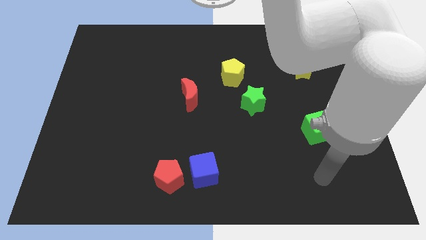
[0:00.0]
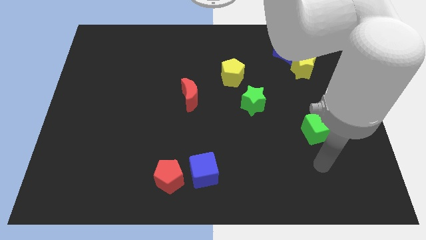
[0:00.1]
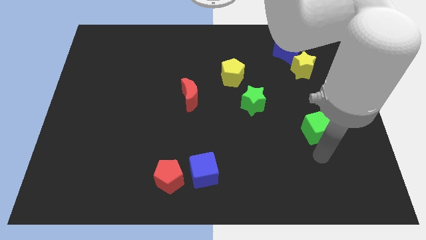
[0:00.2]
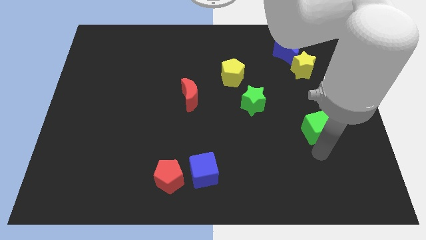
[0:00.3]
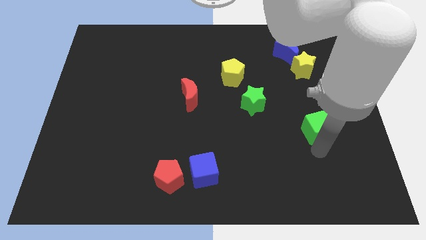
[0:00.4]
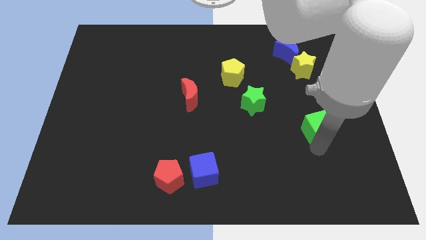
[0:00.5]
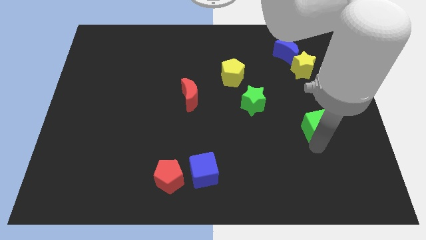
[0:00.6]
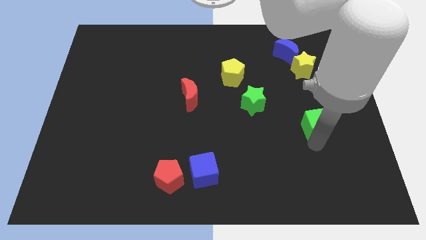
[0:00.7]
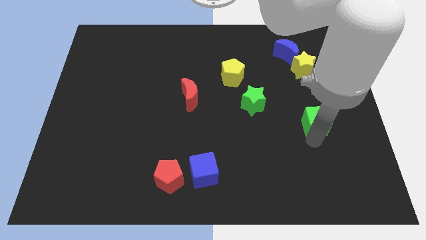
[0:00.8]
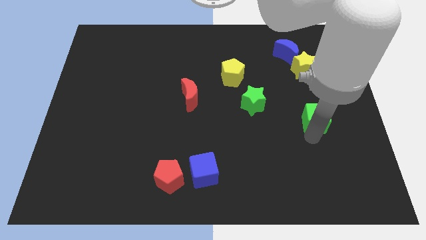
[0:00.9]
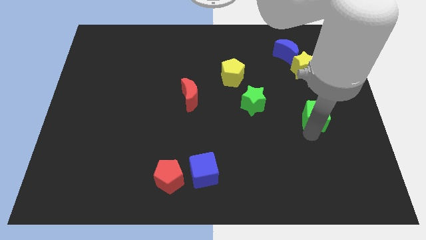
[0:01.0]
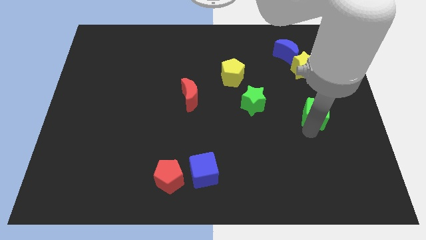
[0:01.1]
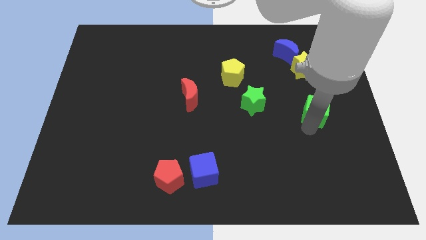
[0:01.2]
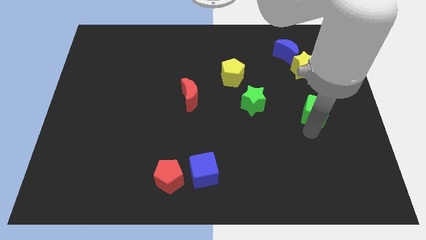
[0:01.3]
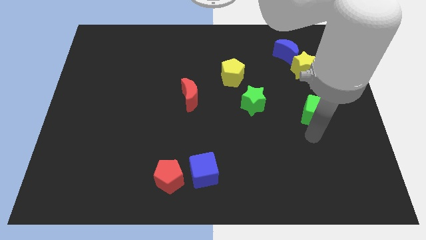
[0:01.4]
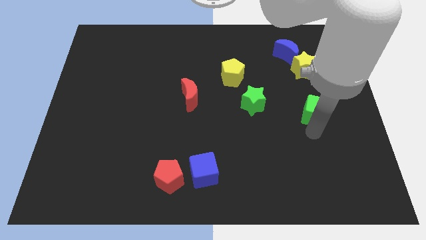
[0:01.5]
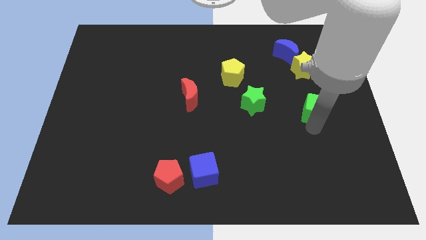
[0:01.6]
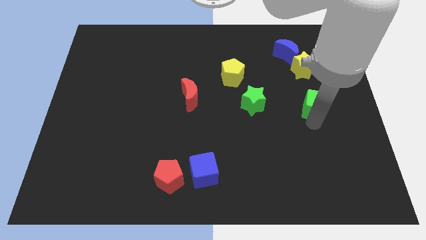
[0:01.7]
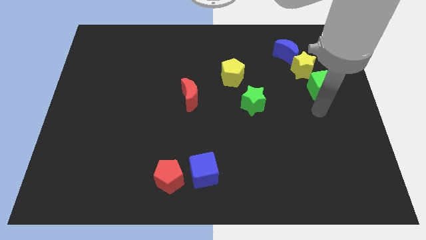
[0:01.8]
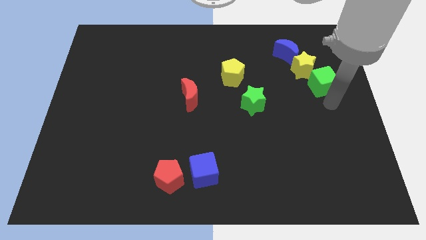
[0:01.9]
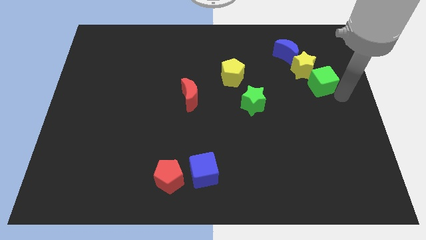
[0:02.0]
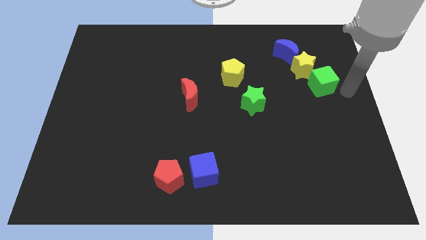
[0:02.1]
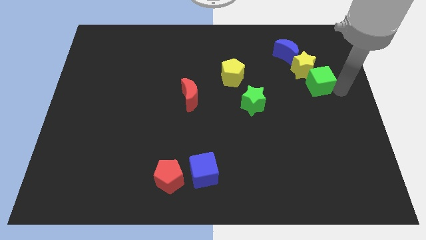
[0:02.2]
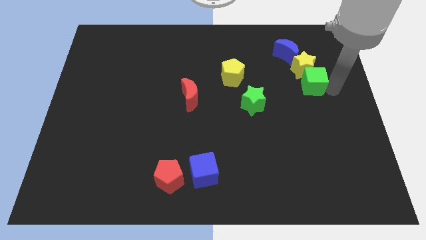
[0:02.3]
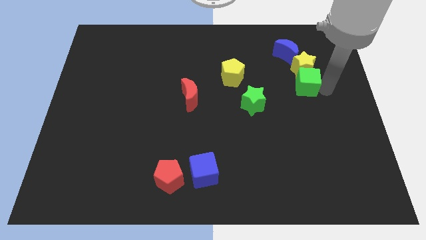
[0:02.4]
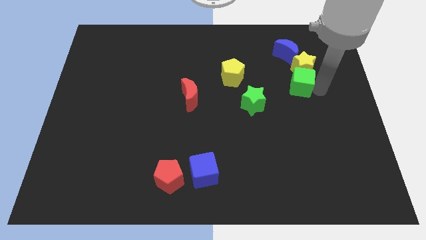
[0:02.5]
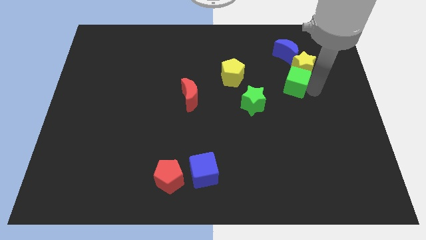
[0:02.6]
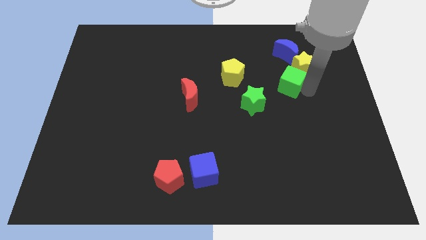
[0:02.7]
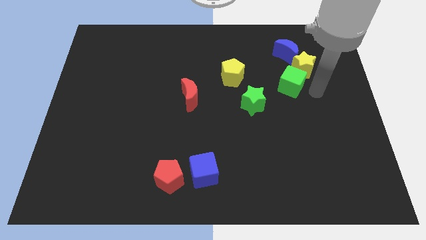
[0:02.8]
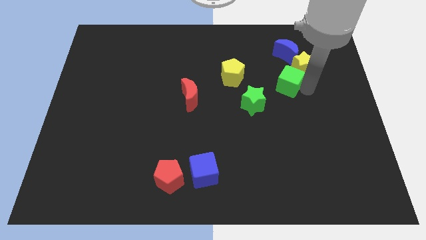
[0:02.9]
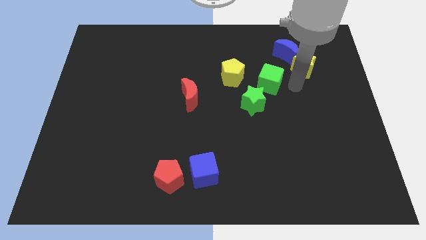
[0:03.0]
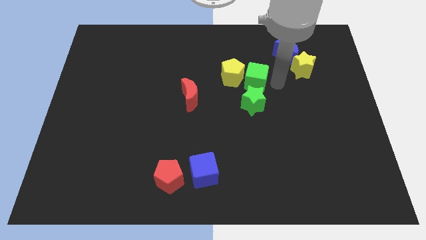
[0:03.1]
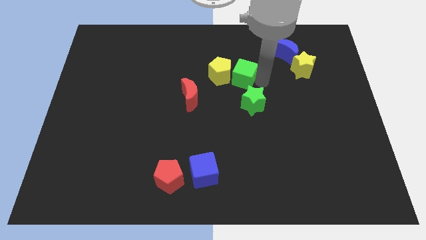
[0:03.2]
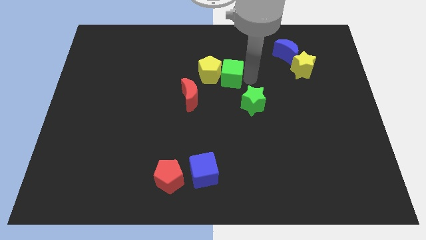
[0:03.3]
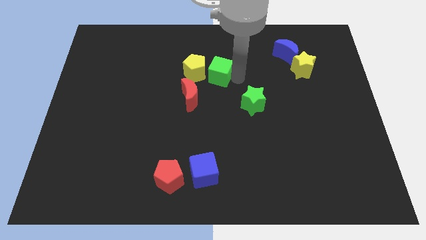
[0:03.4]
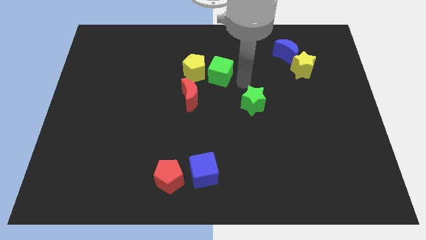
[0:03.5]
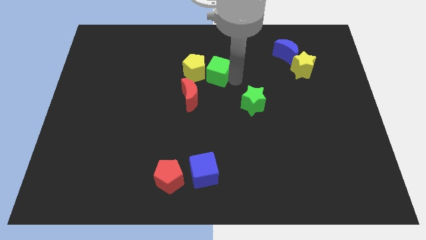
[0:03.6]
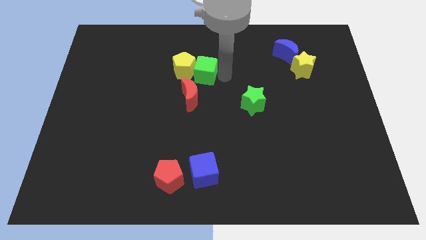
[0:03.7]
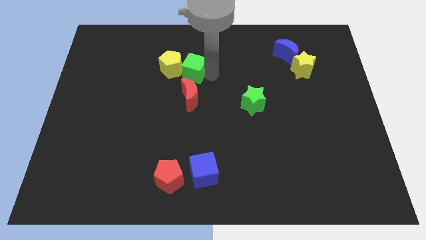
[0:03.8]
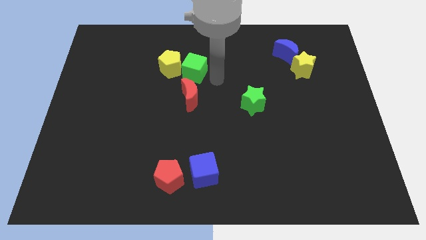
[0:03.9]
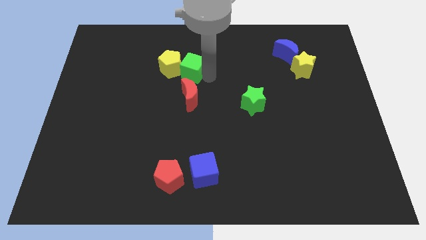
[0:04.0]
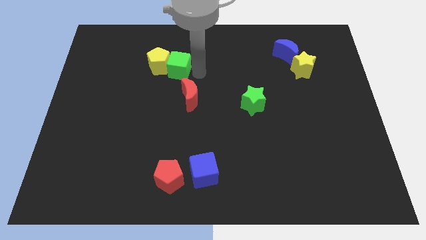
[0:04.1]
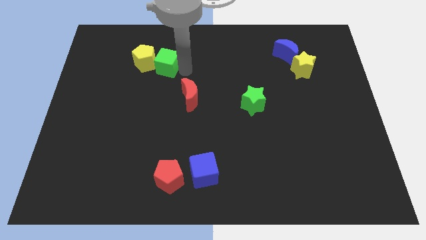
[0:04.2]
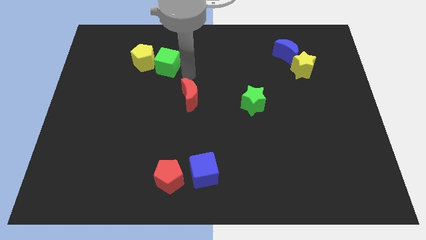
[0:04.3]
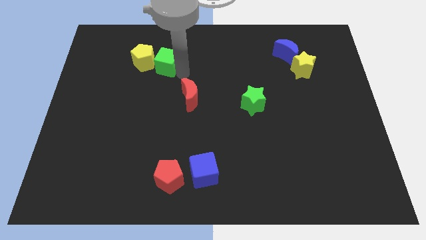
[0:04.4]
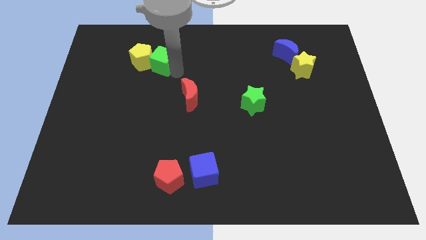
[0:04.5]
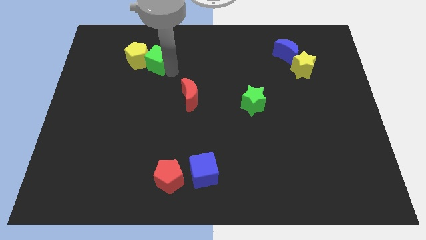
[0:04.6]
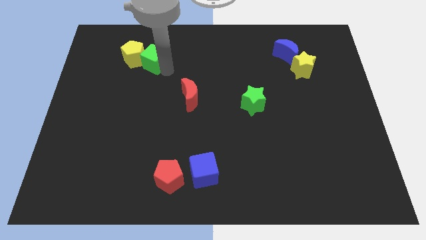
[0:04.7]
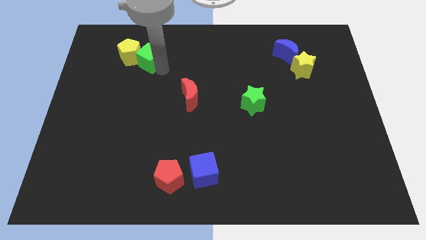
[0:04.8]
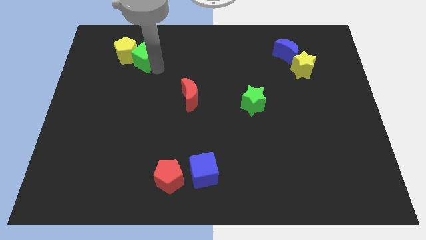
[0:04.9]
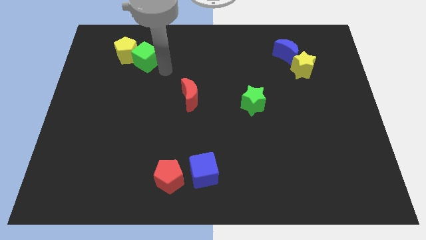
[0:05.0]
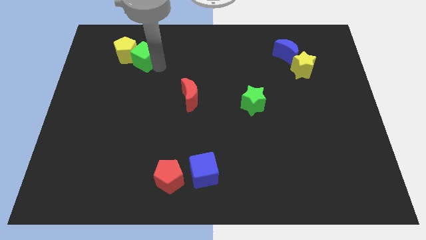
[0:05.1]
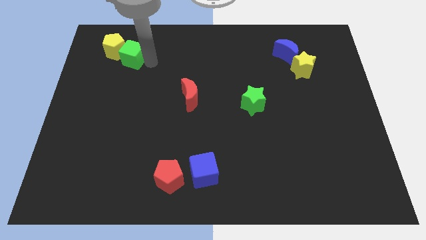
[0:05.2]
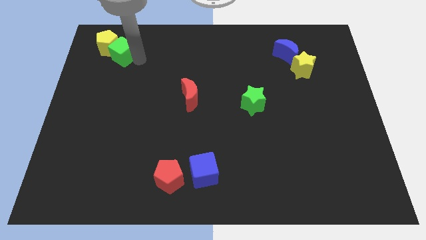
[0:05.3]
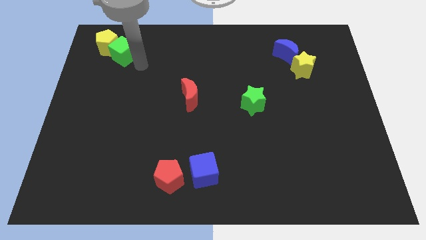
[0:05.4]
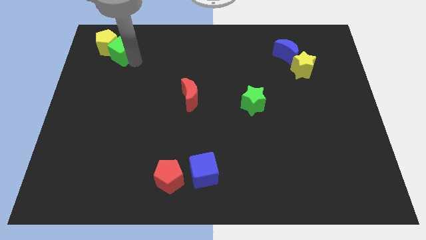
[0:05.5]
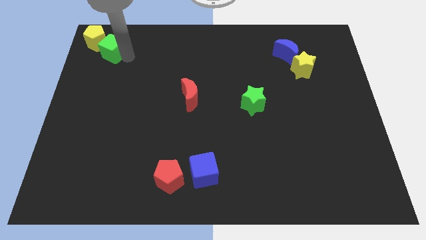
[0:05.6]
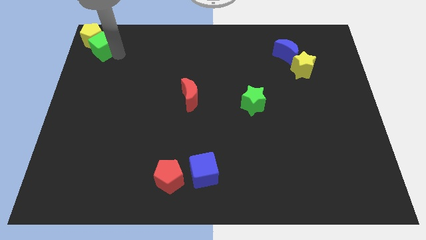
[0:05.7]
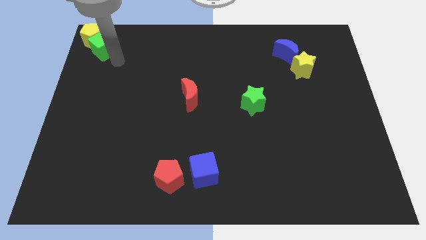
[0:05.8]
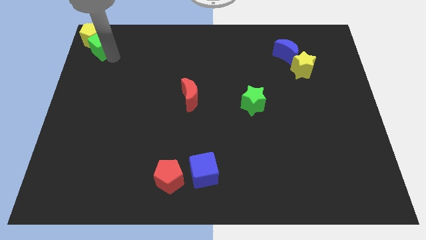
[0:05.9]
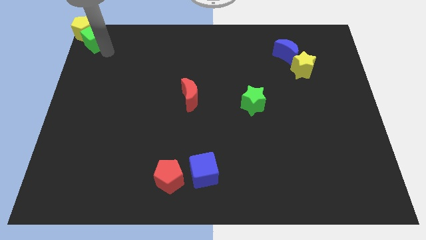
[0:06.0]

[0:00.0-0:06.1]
put the green cube to the top left of the board
